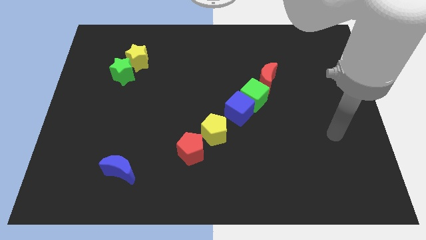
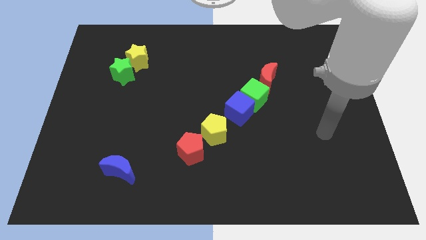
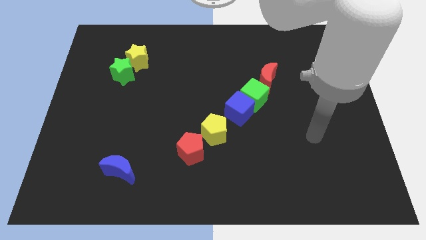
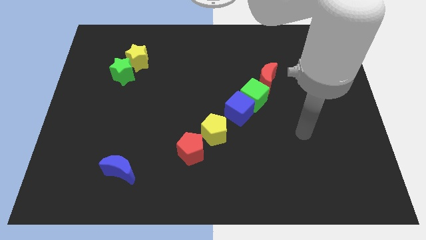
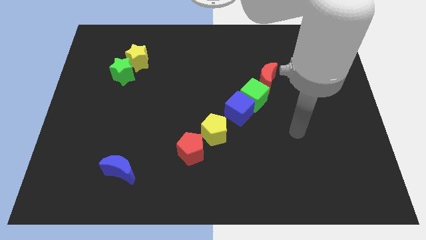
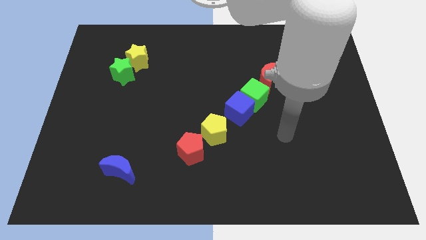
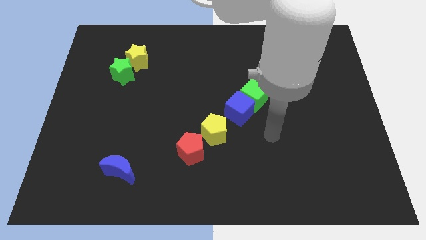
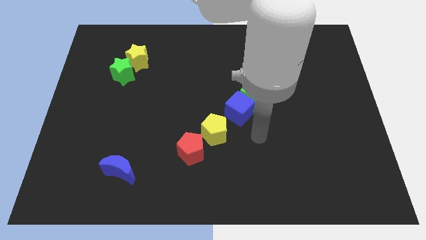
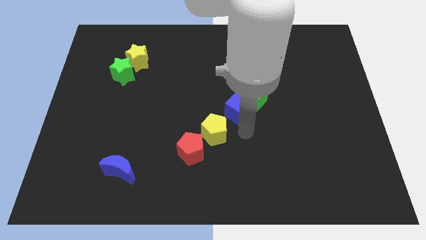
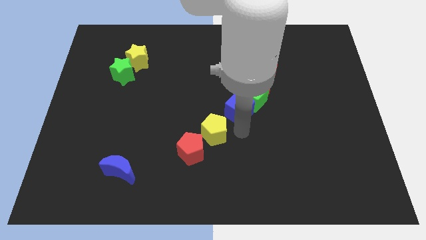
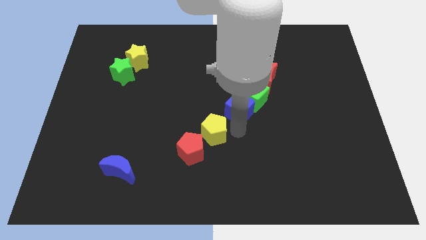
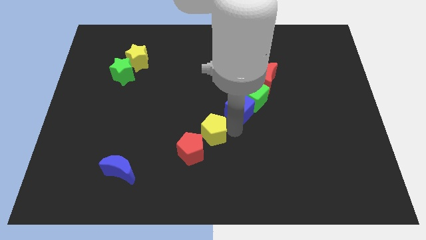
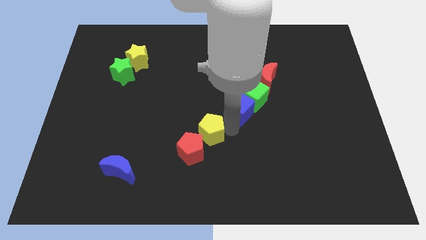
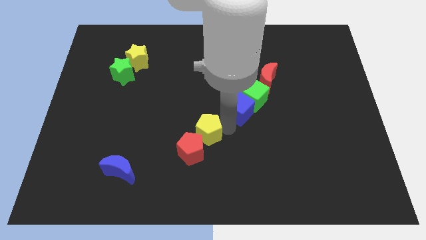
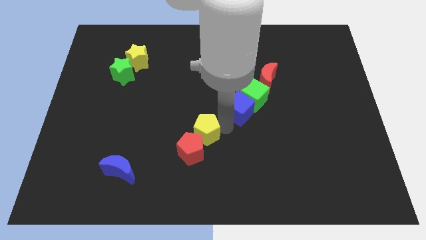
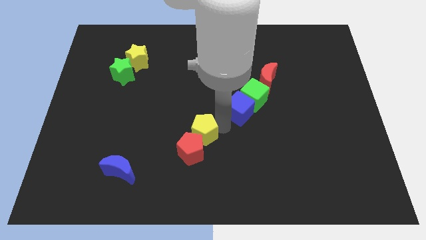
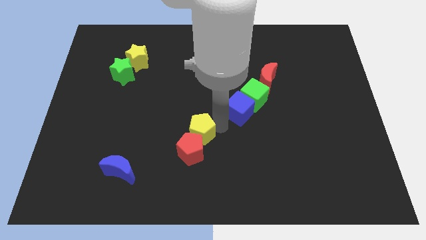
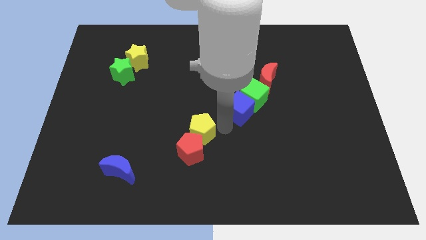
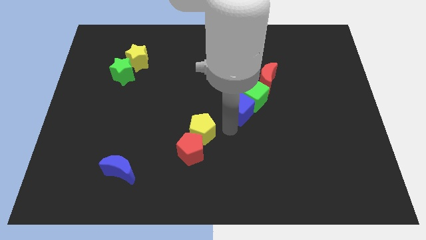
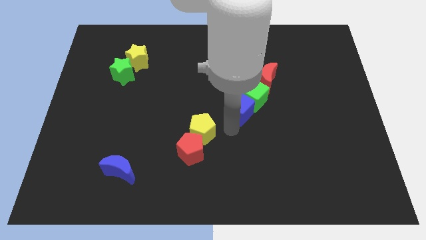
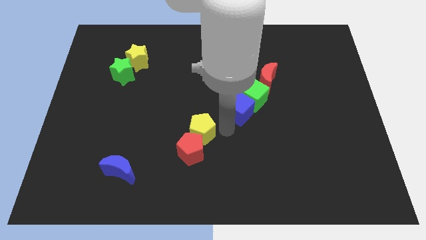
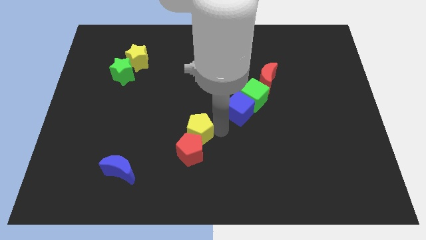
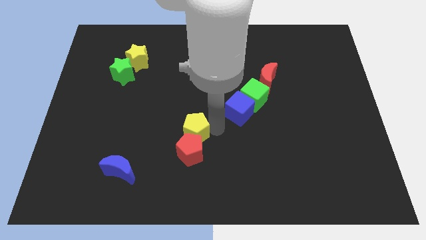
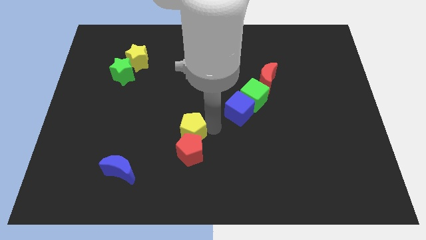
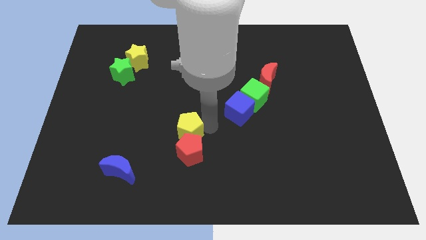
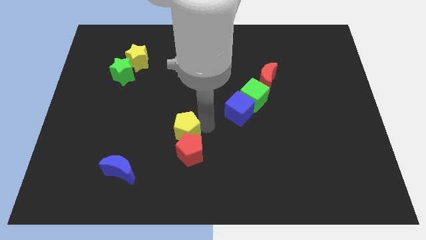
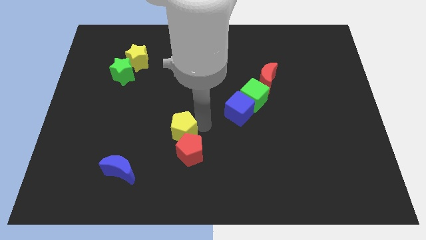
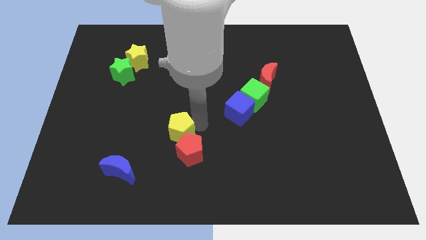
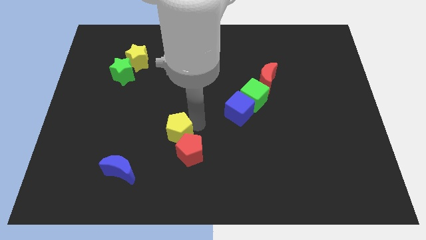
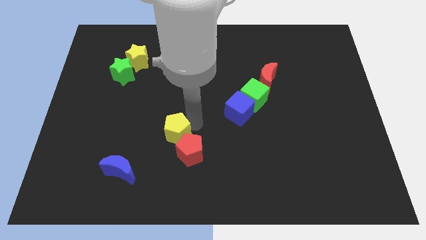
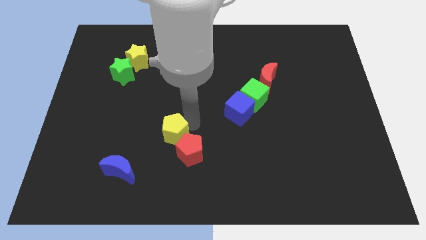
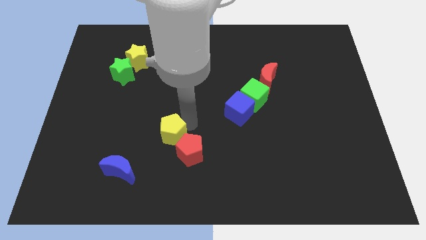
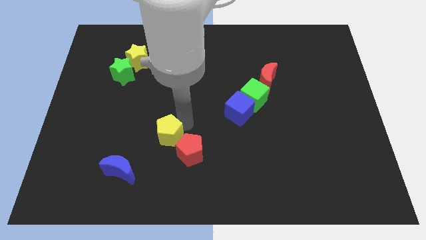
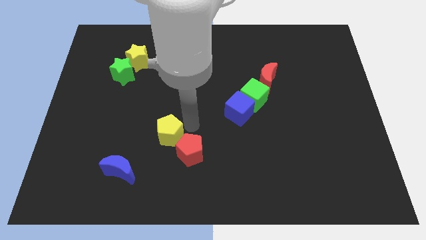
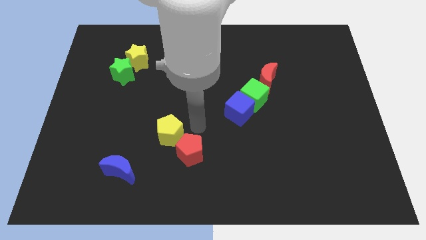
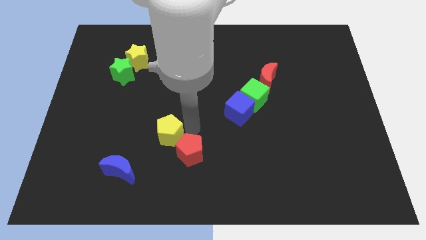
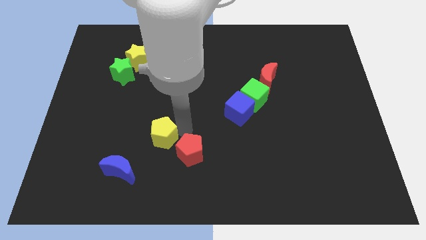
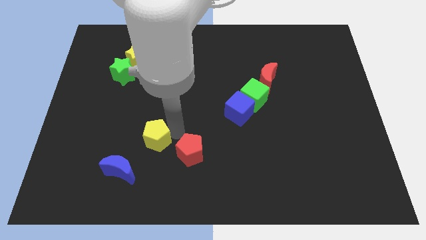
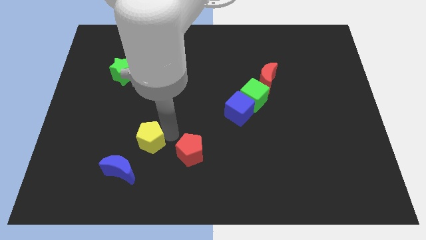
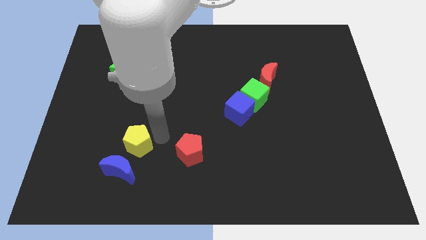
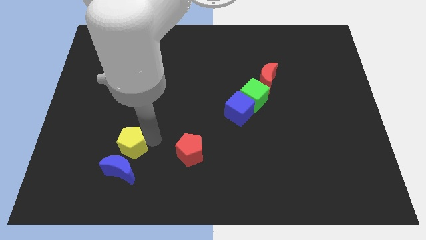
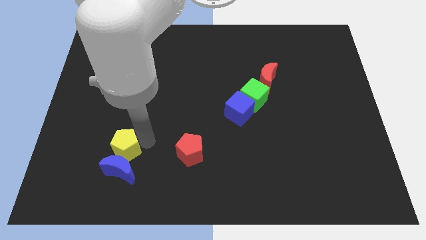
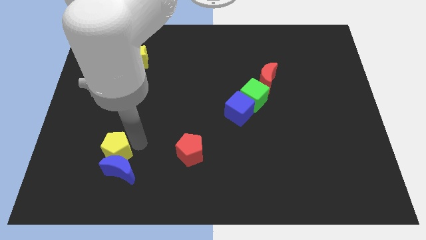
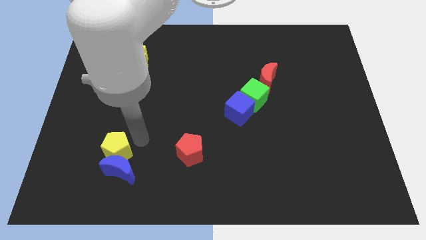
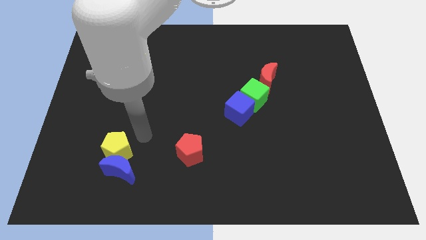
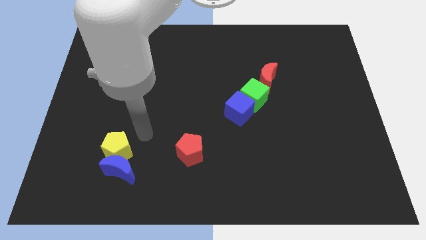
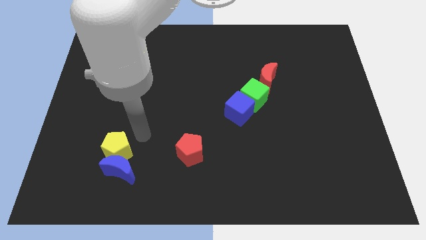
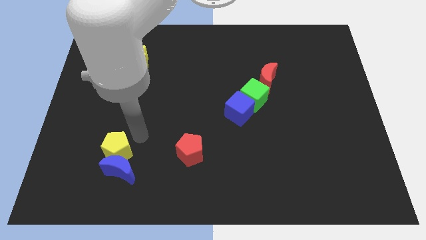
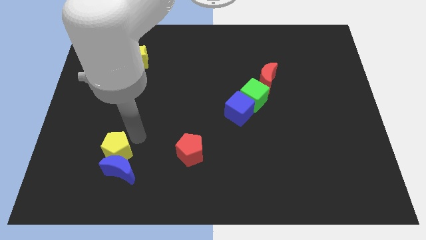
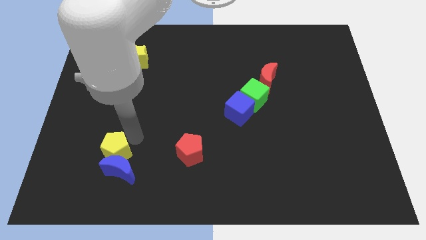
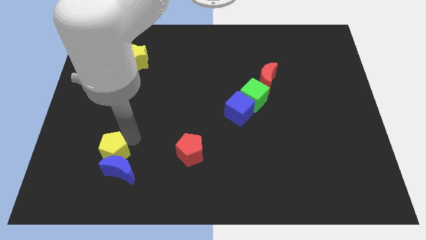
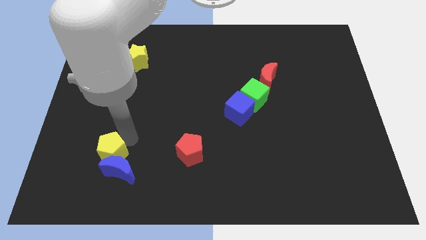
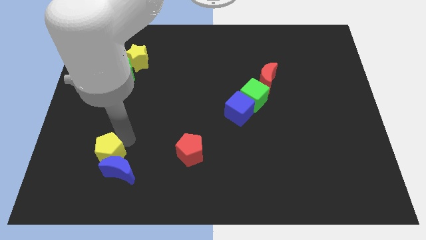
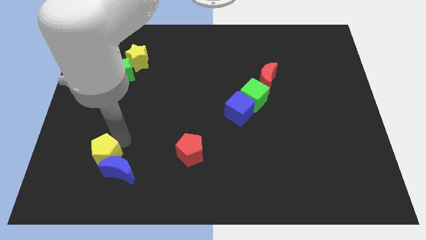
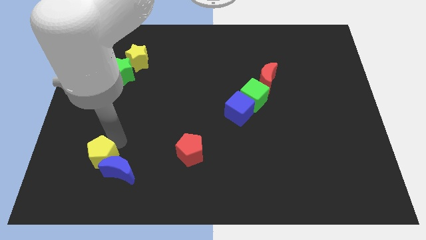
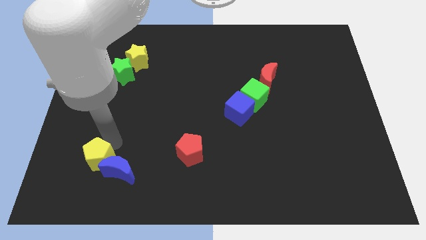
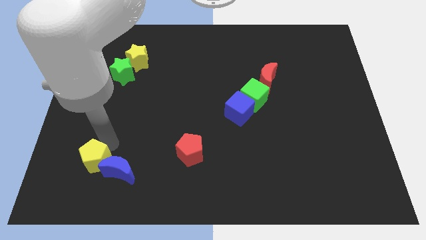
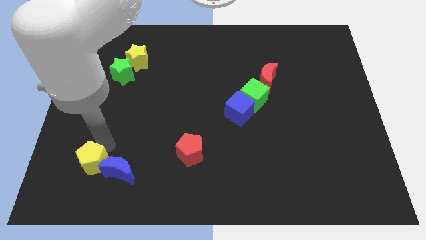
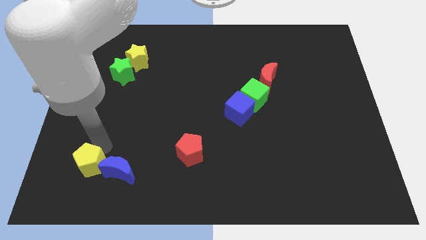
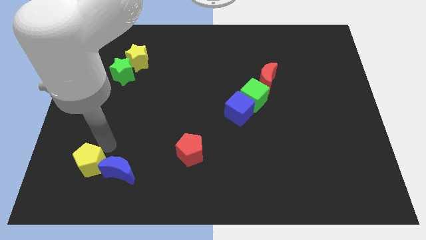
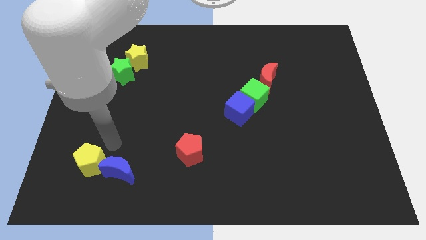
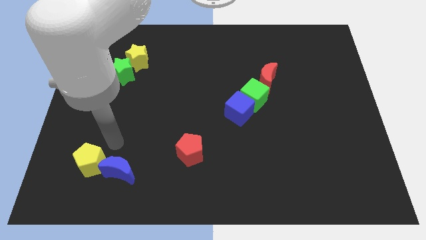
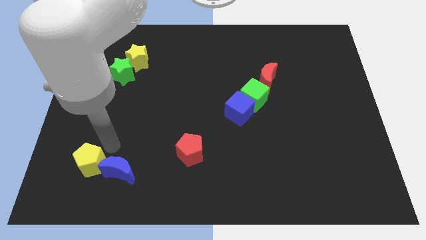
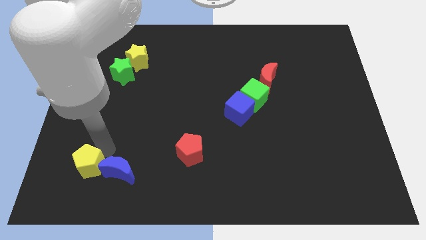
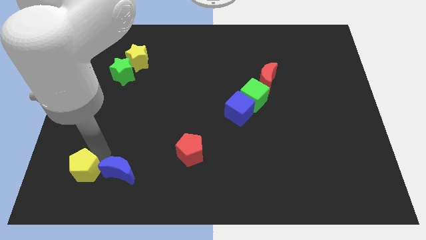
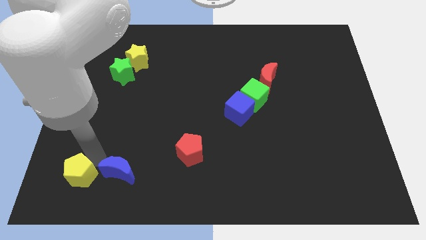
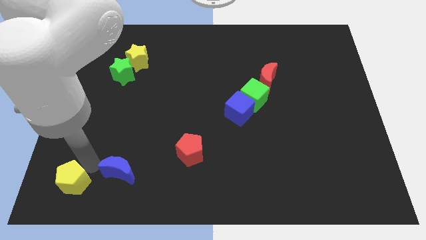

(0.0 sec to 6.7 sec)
put the yellow pentagon to the bottom left
